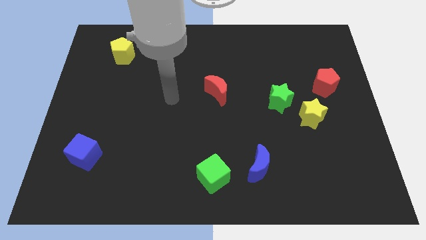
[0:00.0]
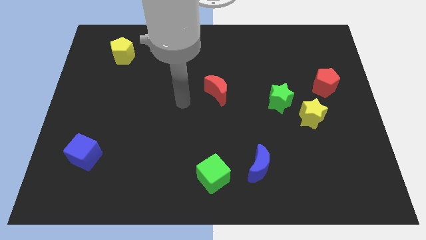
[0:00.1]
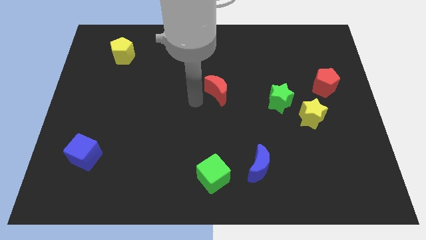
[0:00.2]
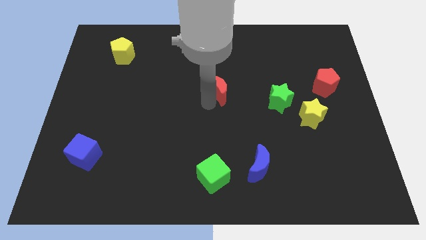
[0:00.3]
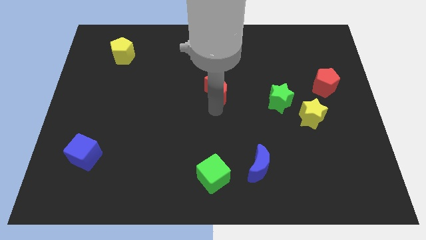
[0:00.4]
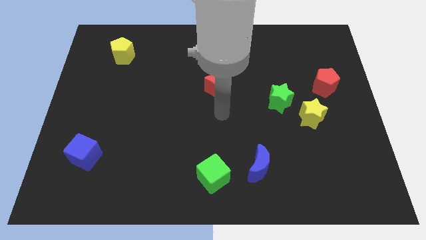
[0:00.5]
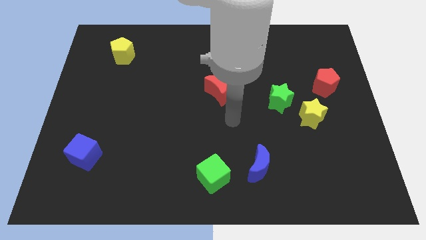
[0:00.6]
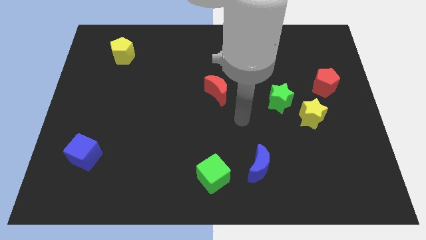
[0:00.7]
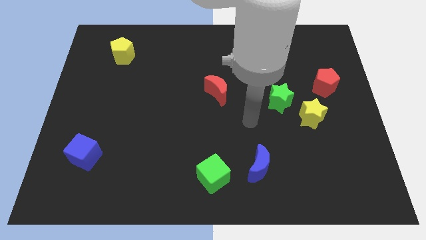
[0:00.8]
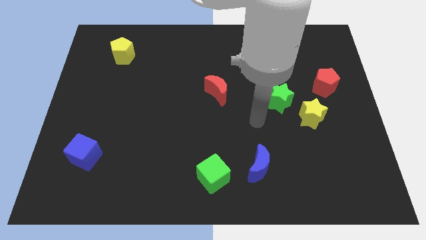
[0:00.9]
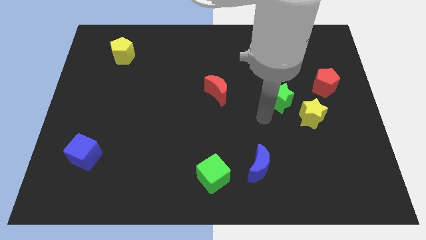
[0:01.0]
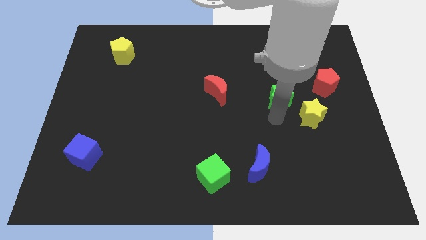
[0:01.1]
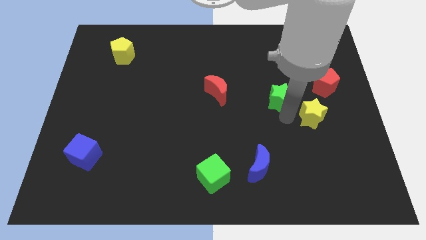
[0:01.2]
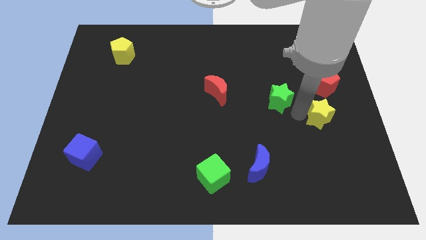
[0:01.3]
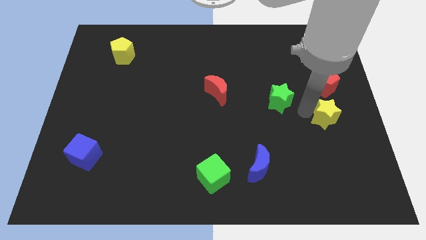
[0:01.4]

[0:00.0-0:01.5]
pull the green star apart from the yellow star

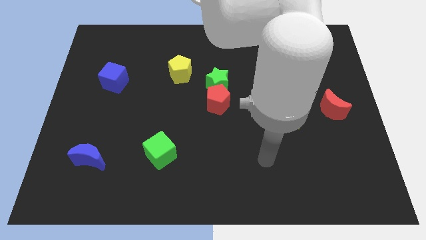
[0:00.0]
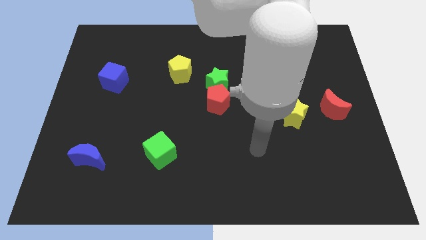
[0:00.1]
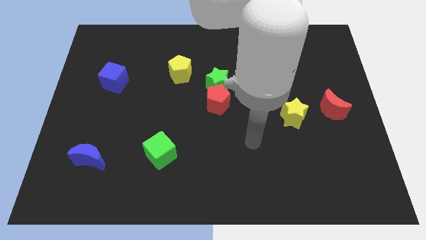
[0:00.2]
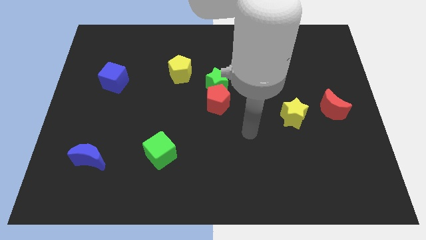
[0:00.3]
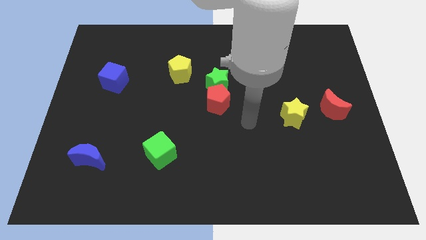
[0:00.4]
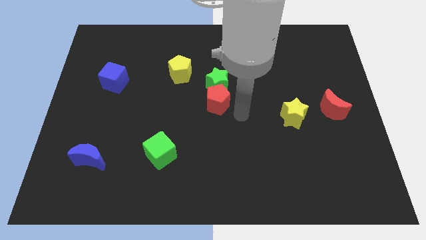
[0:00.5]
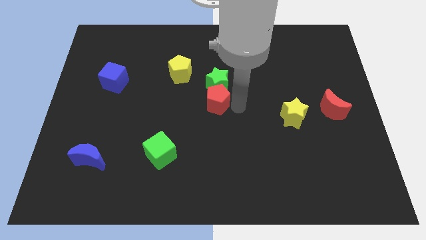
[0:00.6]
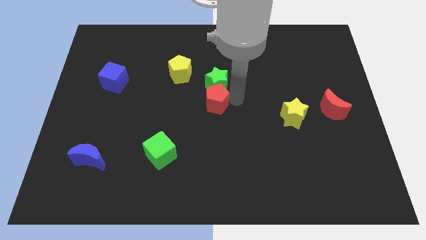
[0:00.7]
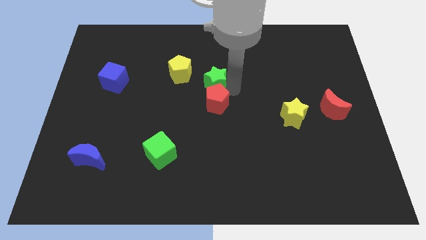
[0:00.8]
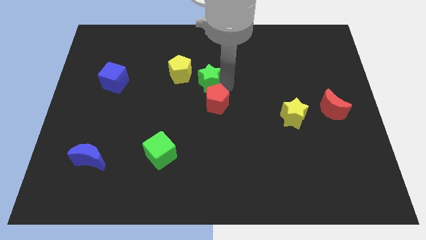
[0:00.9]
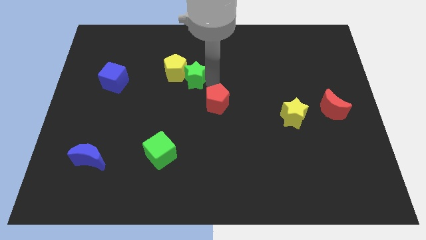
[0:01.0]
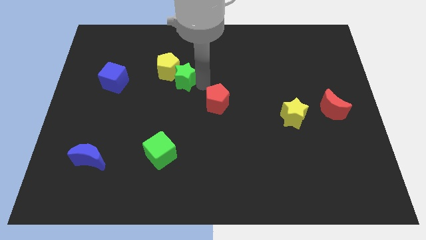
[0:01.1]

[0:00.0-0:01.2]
move the red pentagon away from the green star

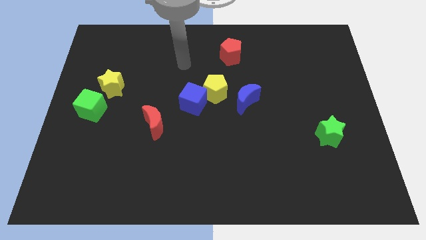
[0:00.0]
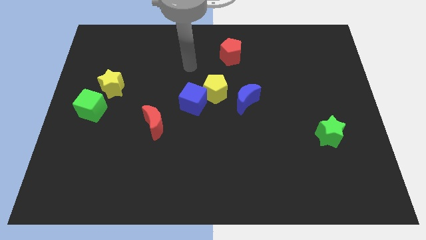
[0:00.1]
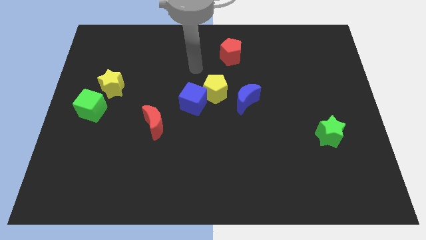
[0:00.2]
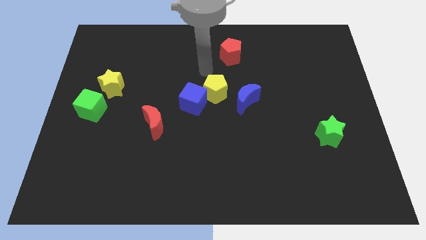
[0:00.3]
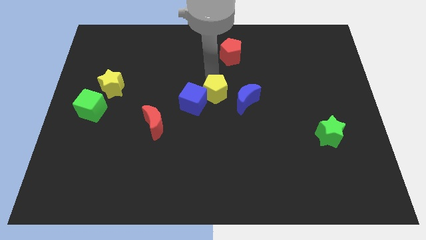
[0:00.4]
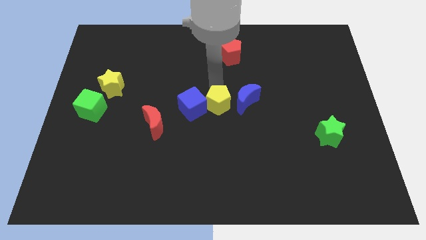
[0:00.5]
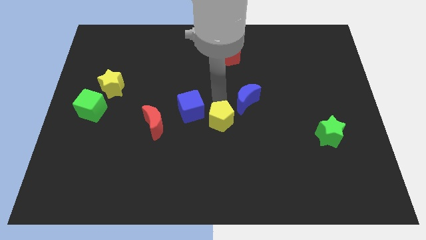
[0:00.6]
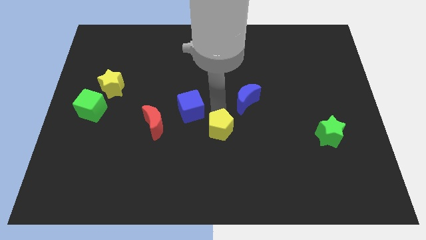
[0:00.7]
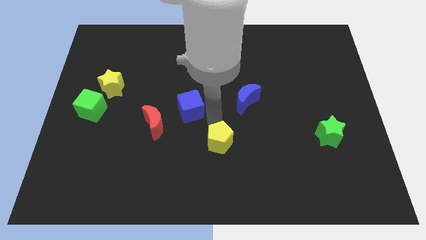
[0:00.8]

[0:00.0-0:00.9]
separate the blue cube from the yellow pentagon

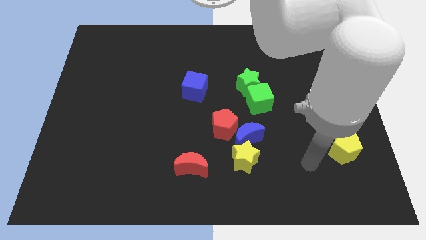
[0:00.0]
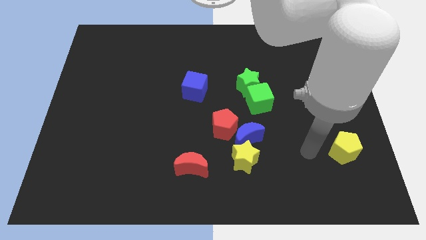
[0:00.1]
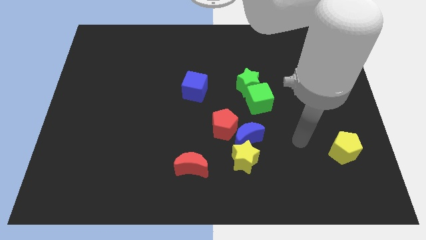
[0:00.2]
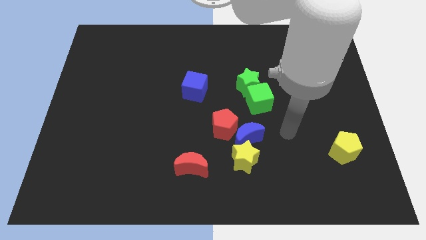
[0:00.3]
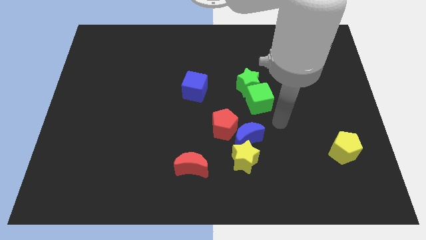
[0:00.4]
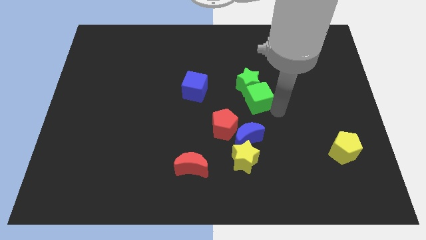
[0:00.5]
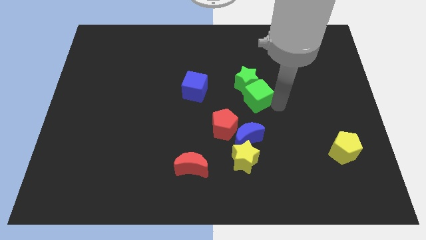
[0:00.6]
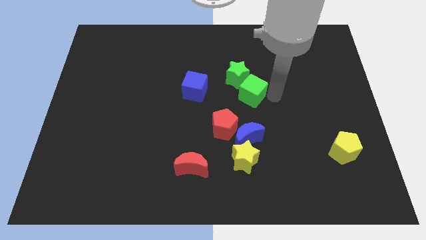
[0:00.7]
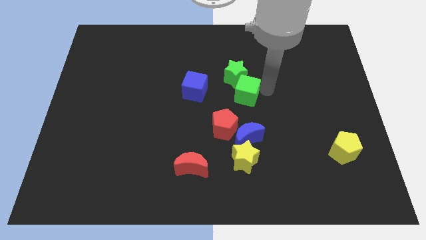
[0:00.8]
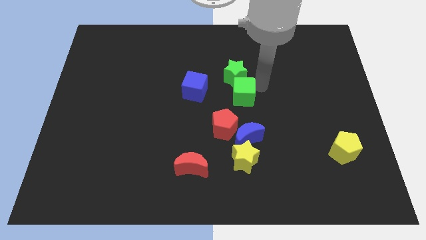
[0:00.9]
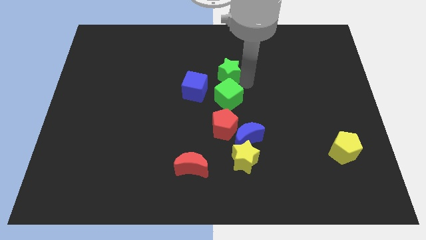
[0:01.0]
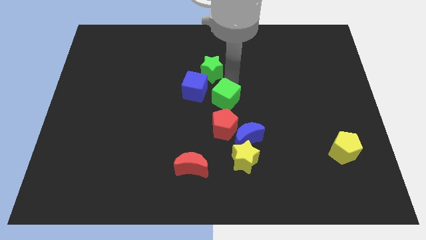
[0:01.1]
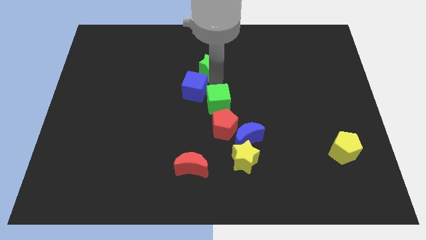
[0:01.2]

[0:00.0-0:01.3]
separate the green cube from the green star

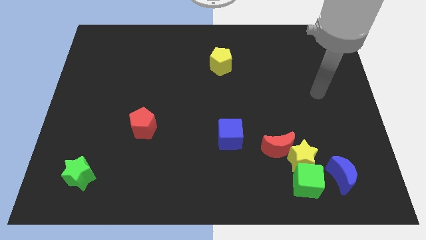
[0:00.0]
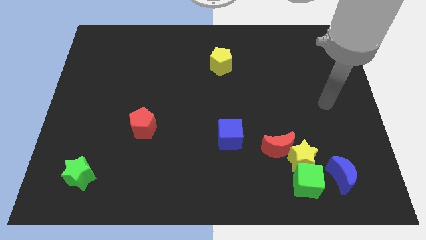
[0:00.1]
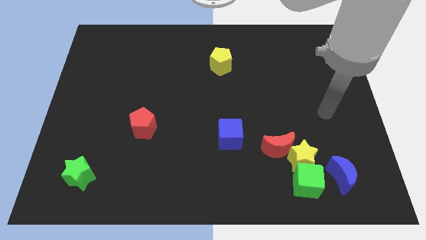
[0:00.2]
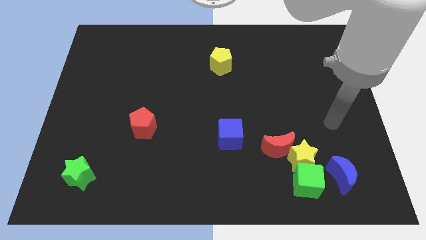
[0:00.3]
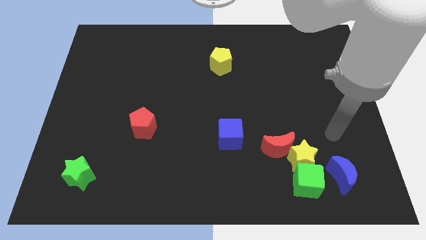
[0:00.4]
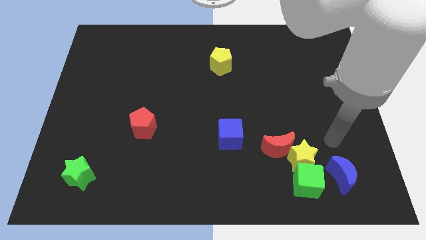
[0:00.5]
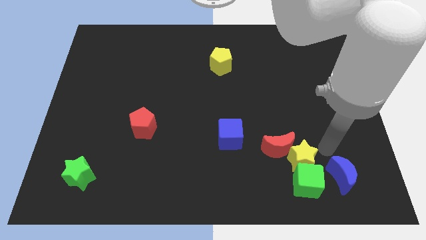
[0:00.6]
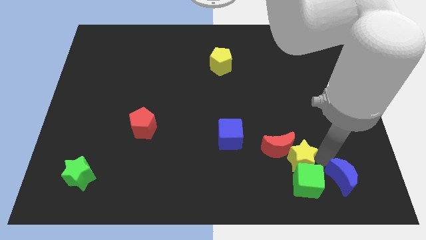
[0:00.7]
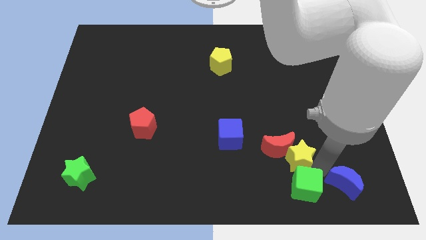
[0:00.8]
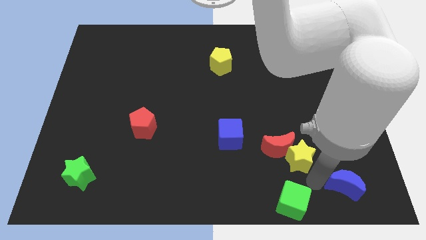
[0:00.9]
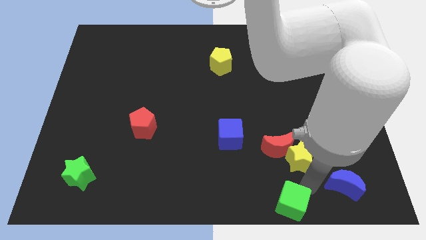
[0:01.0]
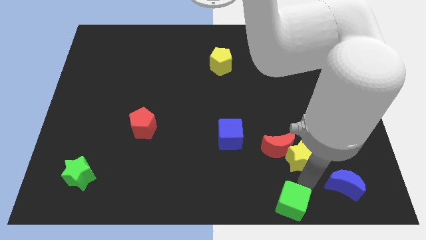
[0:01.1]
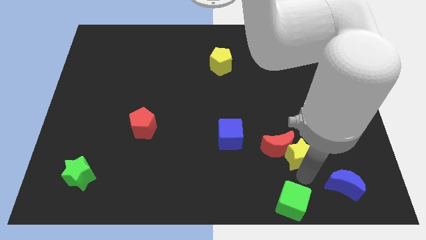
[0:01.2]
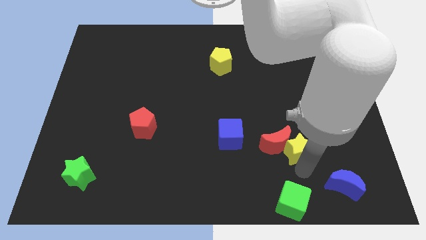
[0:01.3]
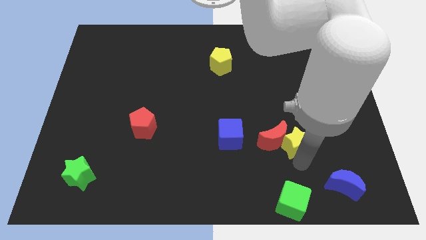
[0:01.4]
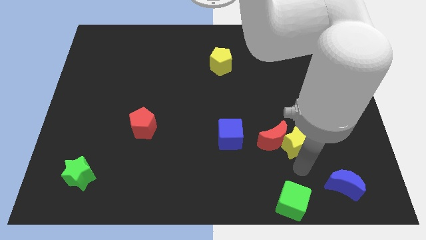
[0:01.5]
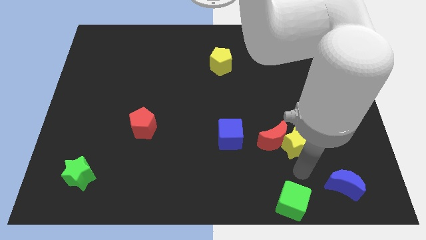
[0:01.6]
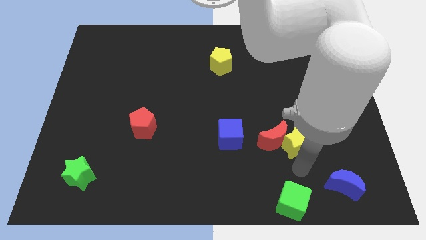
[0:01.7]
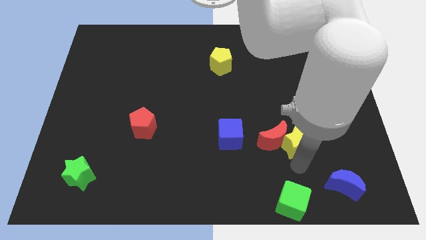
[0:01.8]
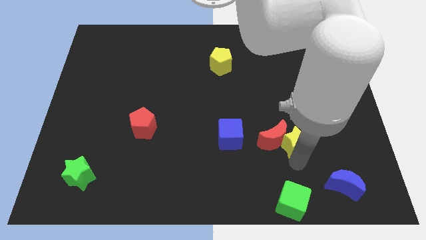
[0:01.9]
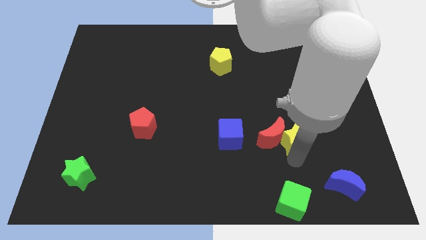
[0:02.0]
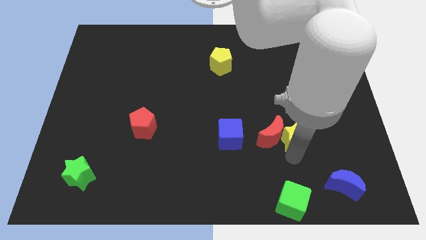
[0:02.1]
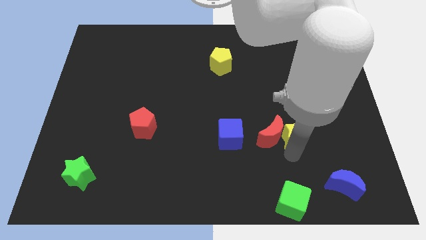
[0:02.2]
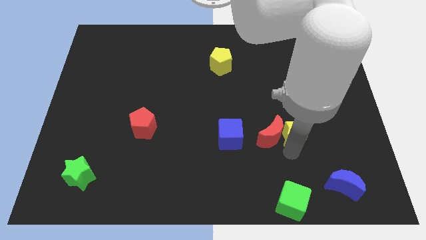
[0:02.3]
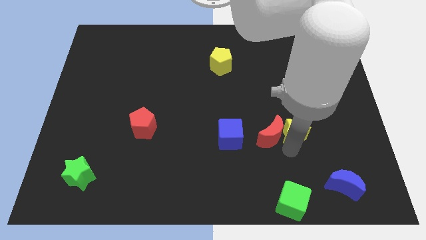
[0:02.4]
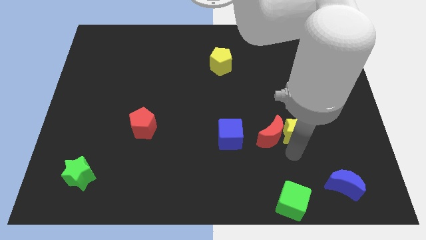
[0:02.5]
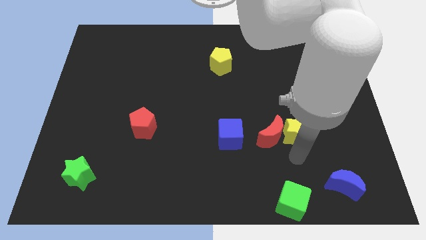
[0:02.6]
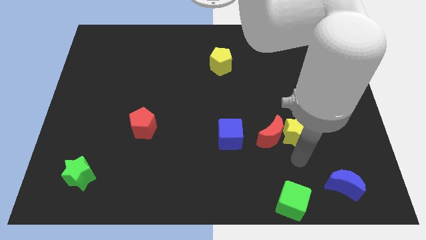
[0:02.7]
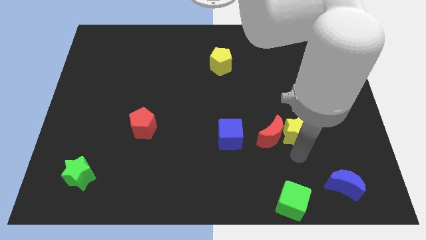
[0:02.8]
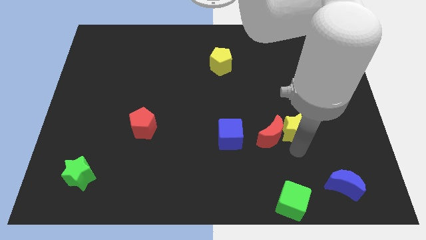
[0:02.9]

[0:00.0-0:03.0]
move the yellow star away from the green cube, red moon, and blue moon

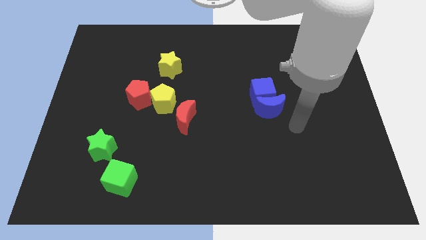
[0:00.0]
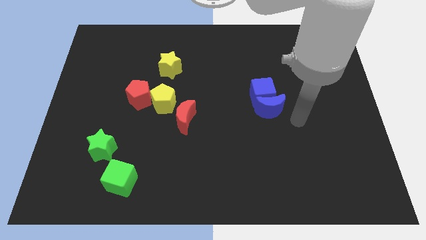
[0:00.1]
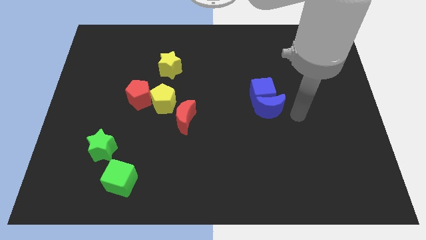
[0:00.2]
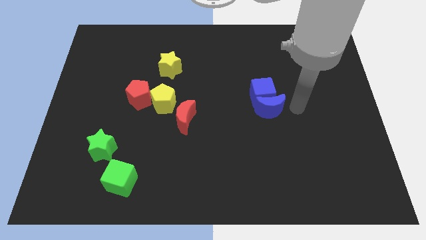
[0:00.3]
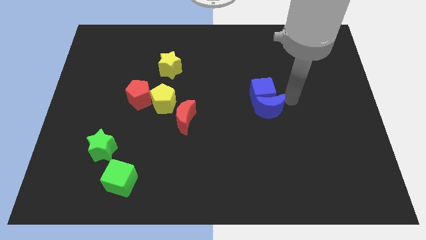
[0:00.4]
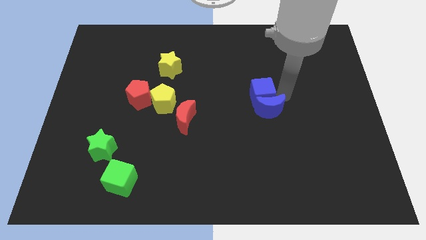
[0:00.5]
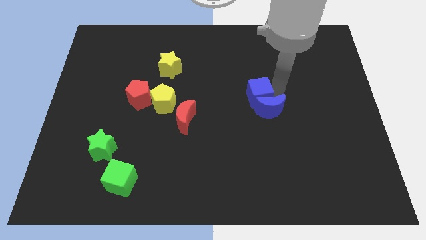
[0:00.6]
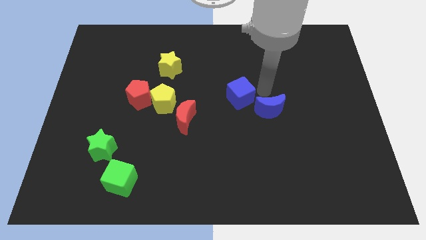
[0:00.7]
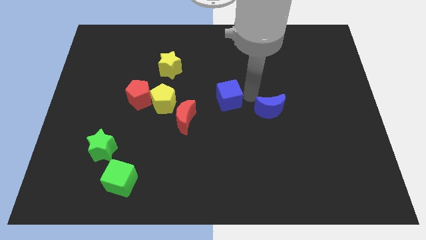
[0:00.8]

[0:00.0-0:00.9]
separate the blue moon from the blue cube

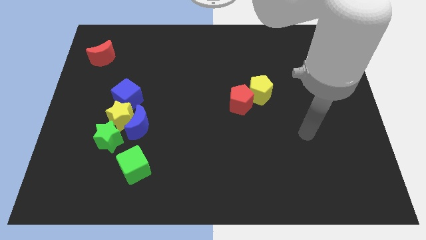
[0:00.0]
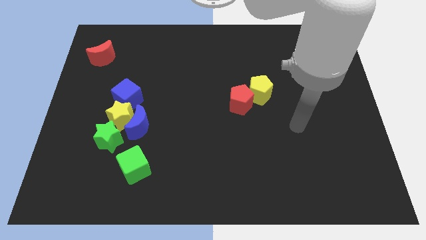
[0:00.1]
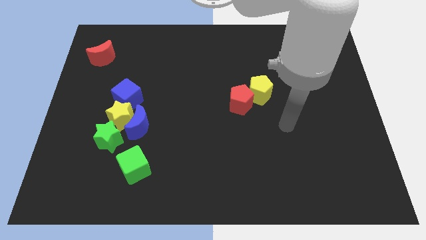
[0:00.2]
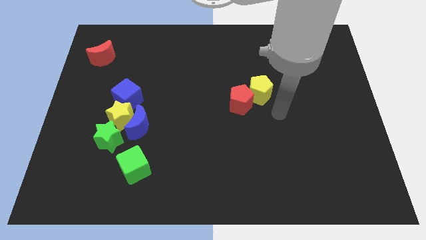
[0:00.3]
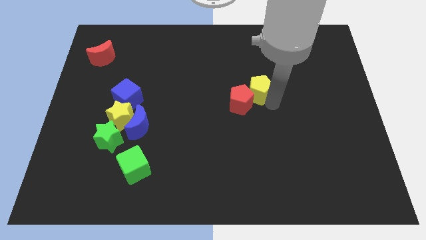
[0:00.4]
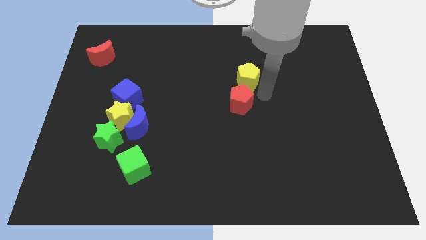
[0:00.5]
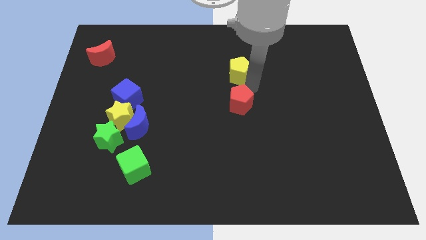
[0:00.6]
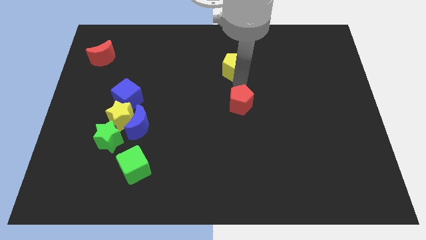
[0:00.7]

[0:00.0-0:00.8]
separate the red pentagon from the yellow pentagon
